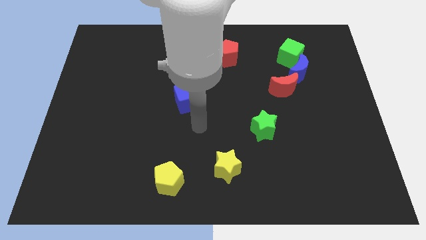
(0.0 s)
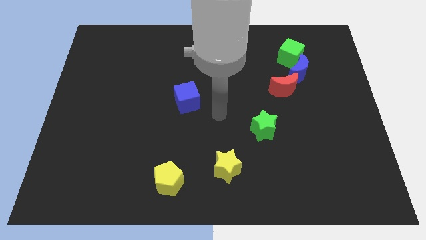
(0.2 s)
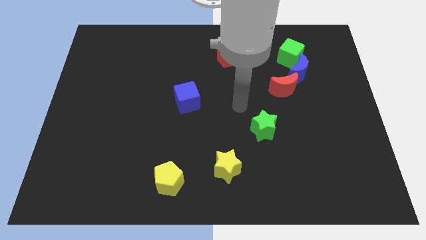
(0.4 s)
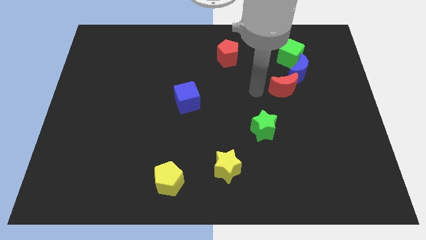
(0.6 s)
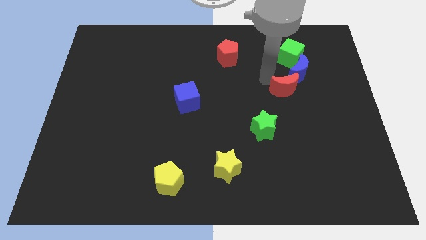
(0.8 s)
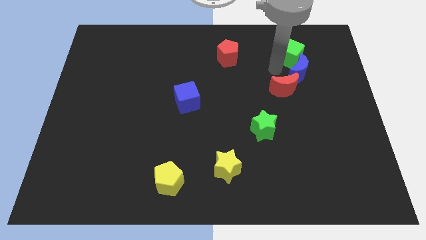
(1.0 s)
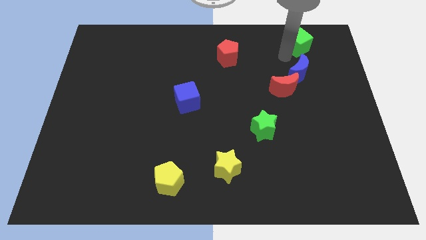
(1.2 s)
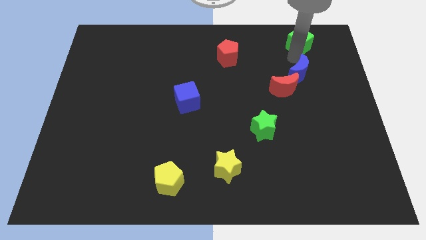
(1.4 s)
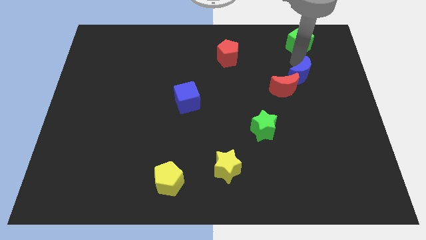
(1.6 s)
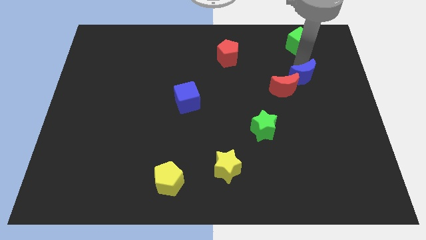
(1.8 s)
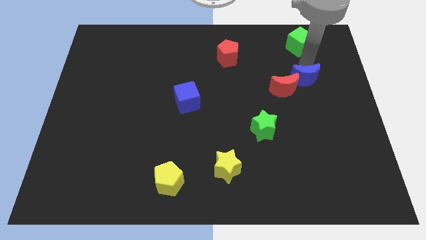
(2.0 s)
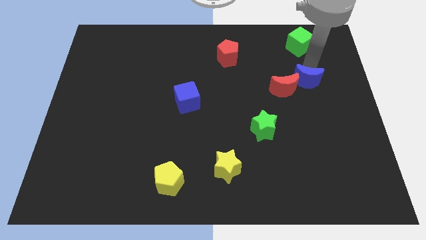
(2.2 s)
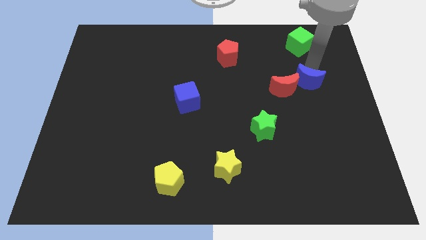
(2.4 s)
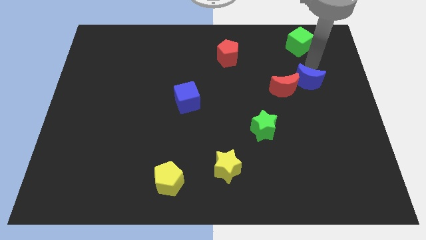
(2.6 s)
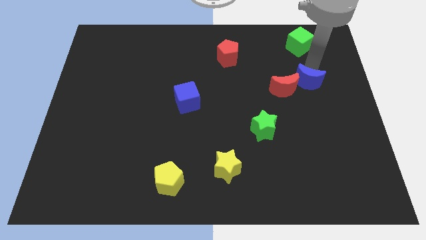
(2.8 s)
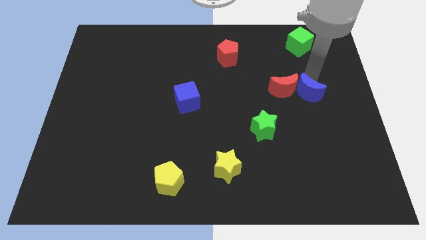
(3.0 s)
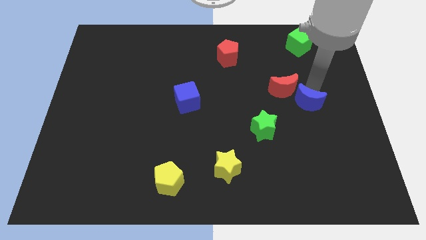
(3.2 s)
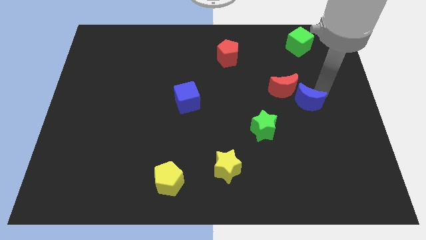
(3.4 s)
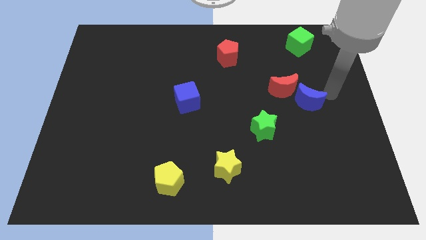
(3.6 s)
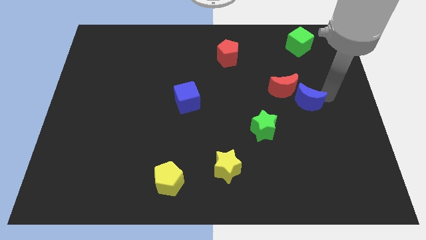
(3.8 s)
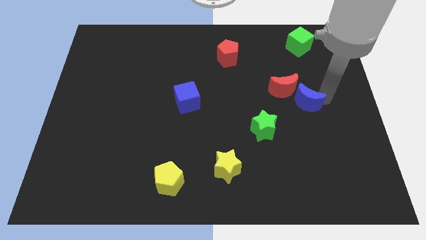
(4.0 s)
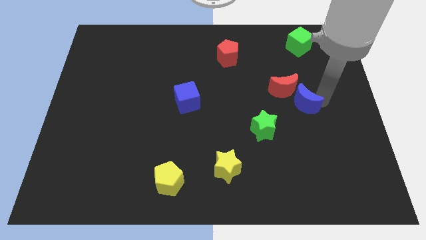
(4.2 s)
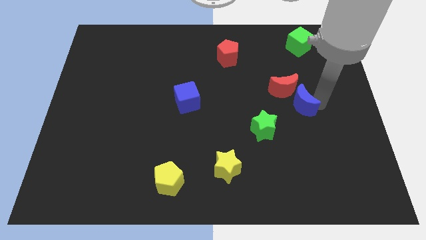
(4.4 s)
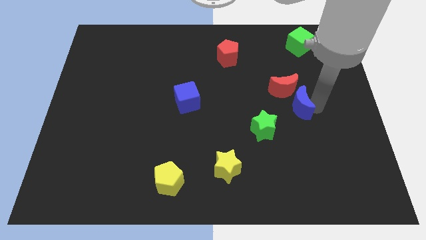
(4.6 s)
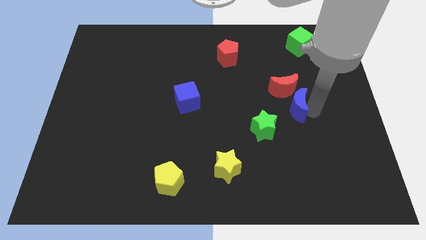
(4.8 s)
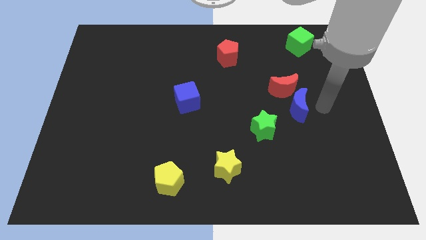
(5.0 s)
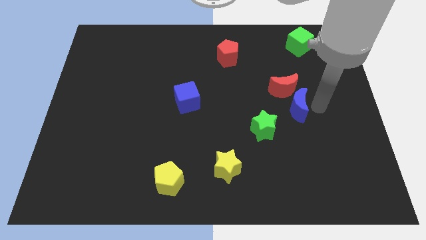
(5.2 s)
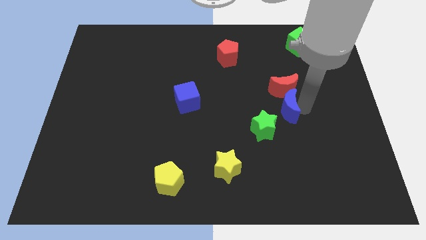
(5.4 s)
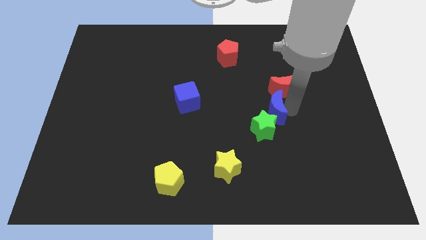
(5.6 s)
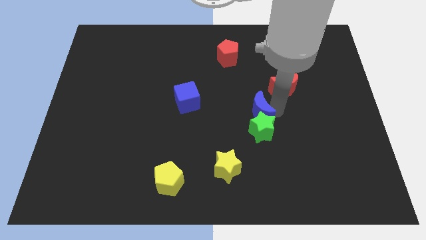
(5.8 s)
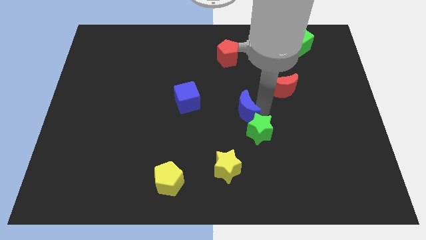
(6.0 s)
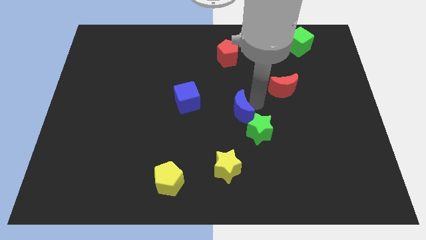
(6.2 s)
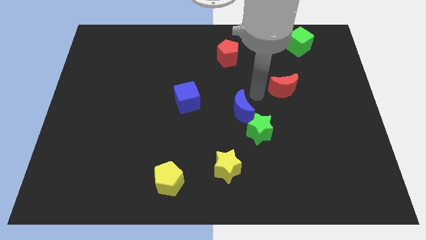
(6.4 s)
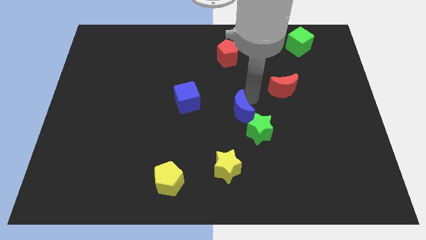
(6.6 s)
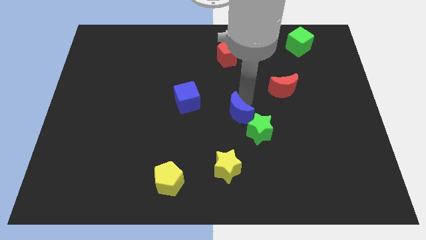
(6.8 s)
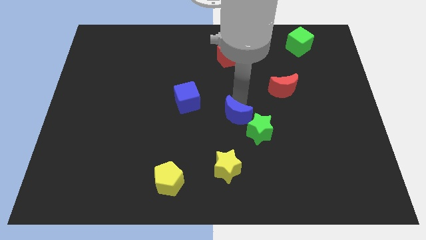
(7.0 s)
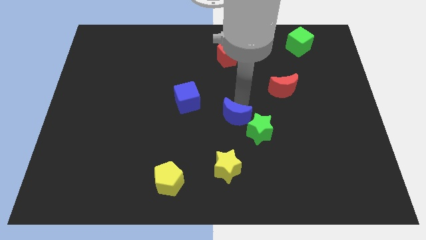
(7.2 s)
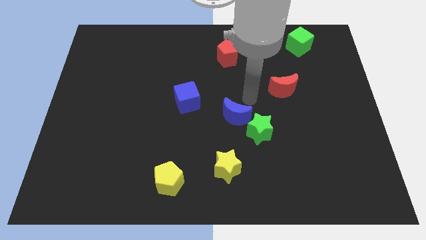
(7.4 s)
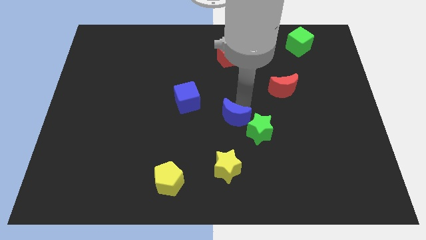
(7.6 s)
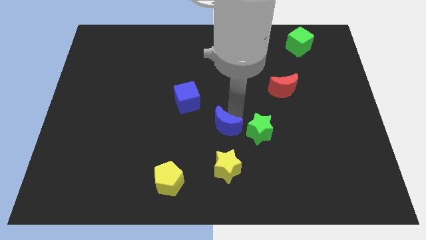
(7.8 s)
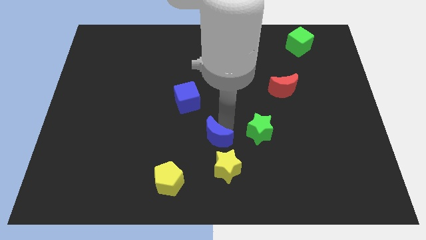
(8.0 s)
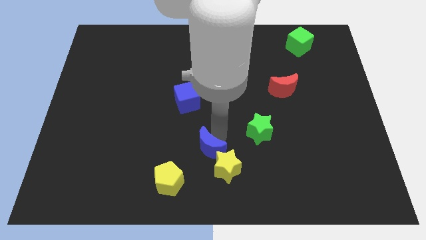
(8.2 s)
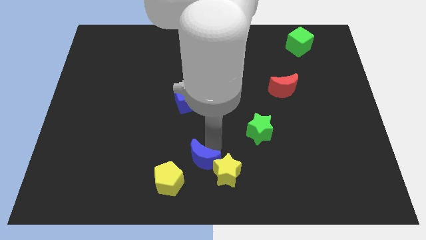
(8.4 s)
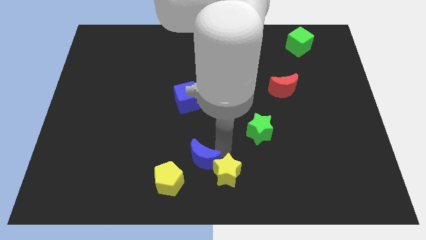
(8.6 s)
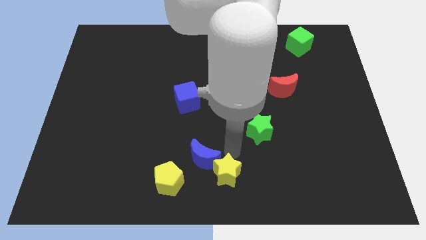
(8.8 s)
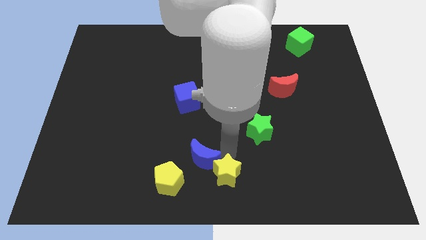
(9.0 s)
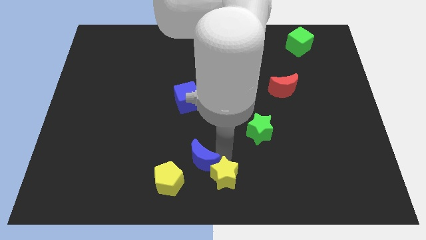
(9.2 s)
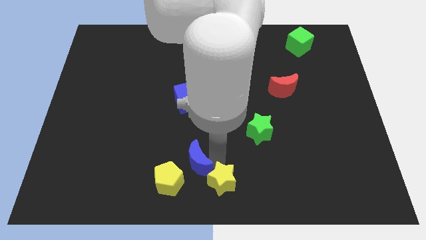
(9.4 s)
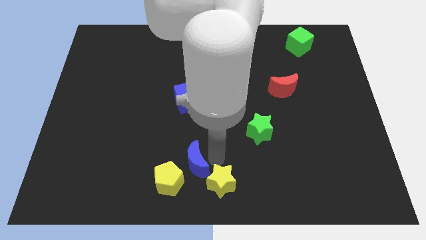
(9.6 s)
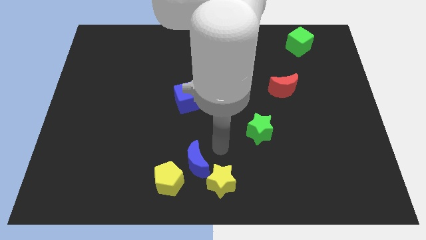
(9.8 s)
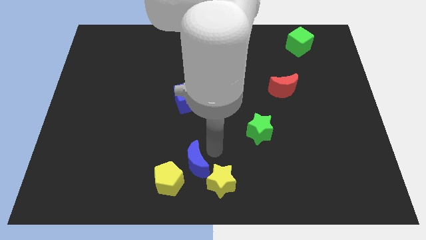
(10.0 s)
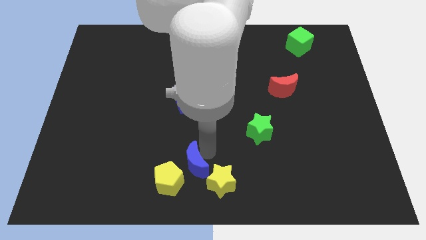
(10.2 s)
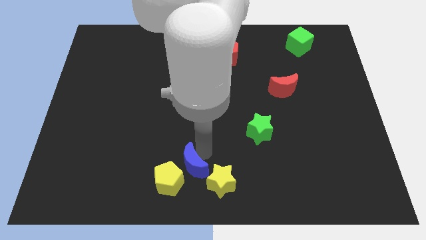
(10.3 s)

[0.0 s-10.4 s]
push the blue moon to the yellow pentagon

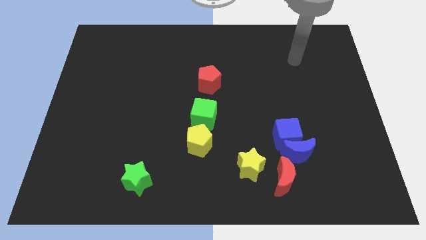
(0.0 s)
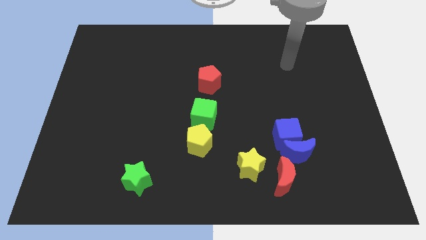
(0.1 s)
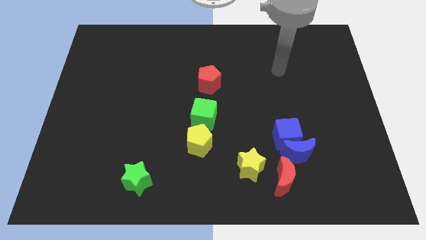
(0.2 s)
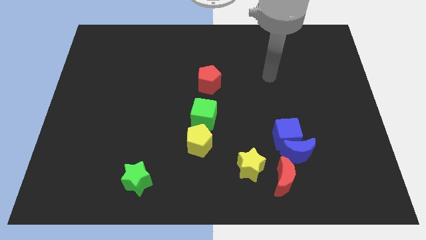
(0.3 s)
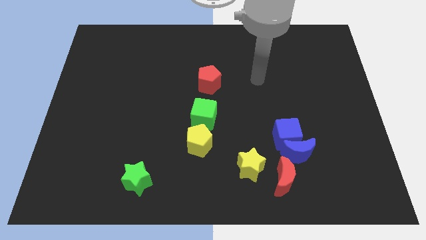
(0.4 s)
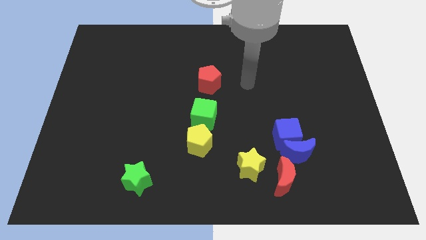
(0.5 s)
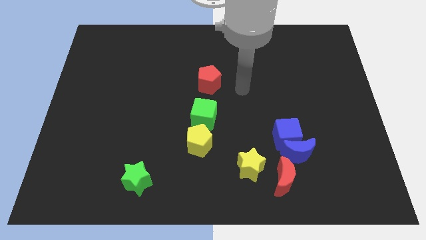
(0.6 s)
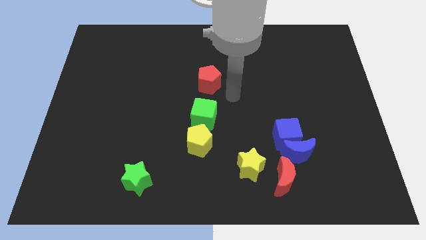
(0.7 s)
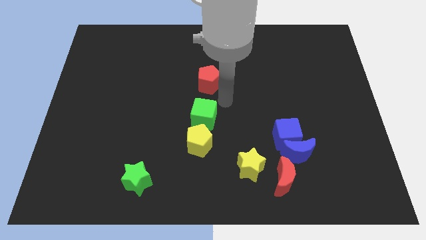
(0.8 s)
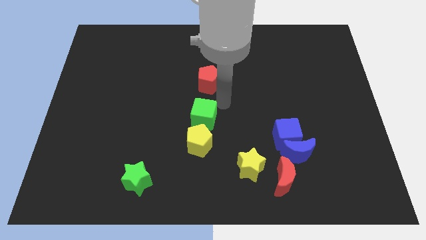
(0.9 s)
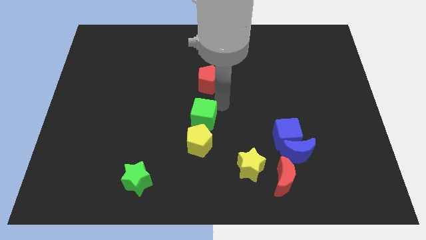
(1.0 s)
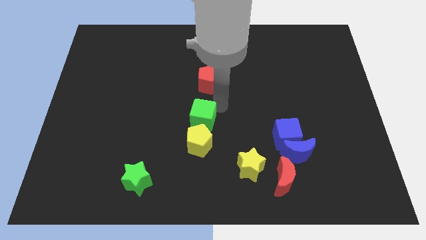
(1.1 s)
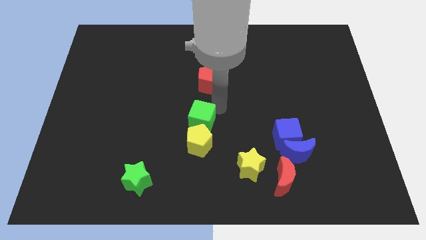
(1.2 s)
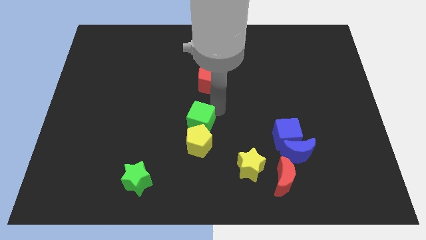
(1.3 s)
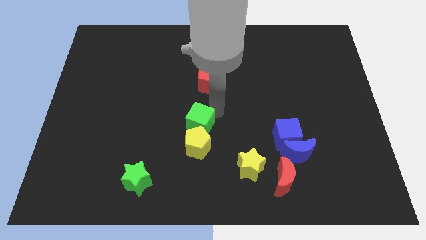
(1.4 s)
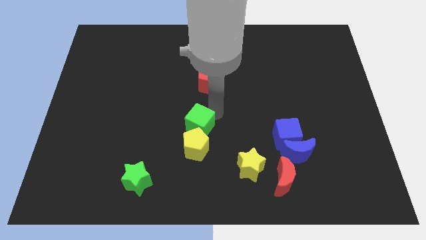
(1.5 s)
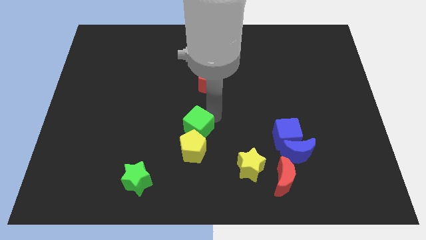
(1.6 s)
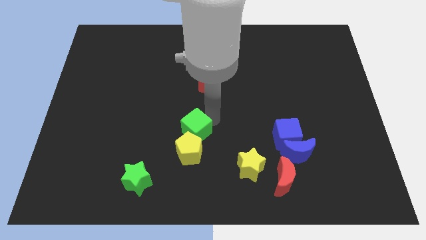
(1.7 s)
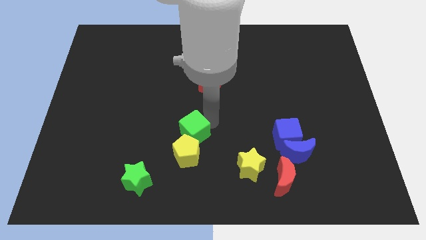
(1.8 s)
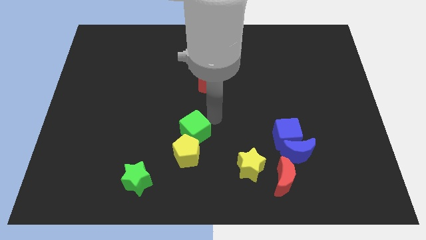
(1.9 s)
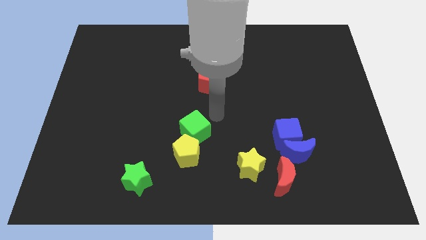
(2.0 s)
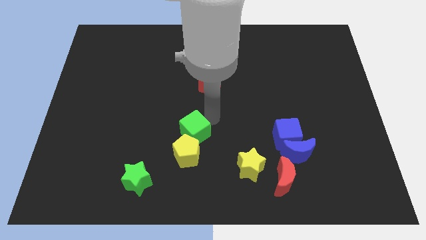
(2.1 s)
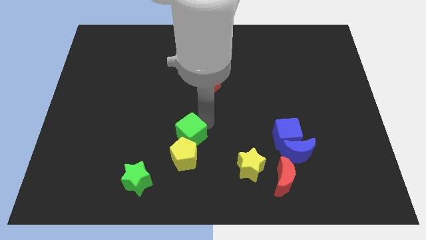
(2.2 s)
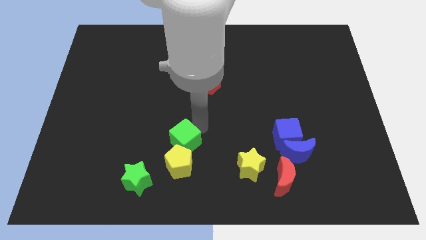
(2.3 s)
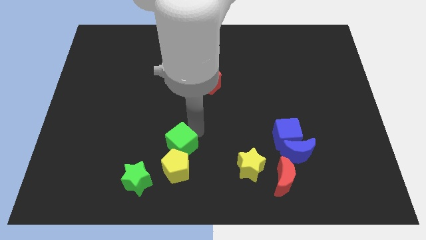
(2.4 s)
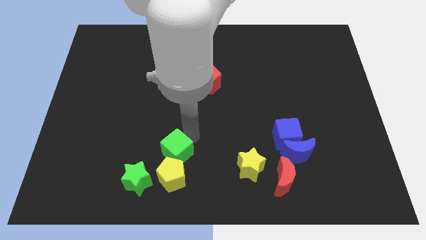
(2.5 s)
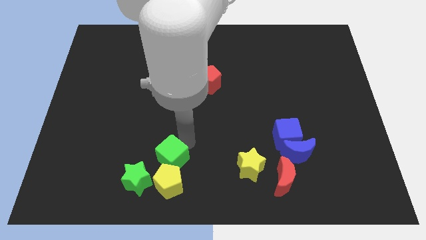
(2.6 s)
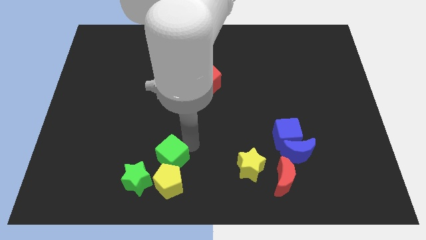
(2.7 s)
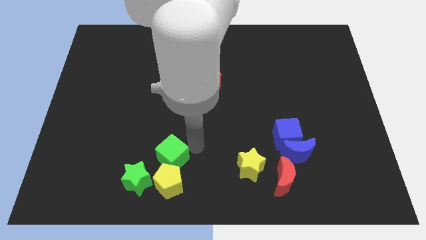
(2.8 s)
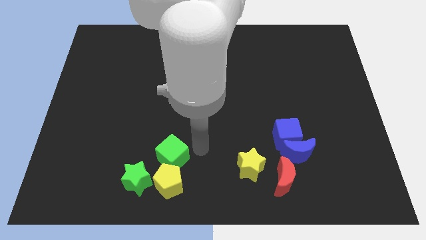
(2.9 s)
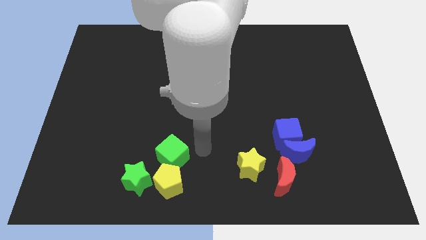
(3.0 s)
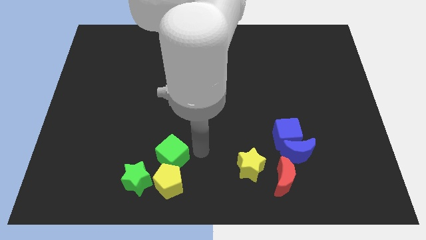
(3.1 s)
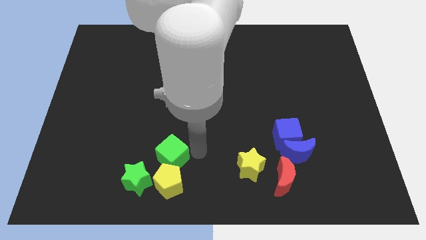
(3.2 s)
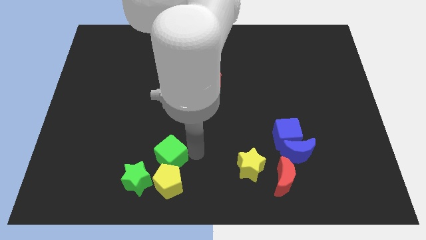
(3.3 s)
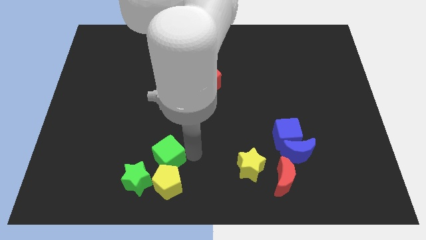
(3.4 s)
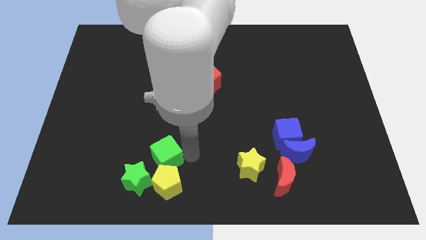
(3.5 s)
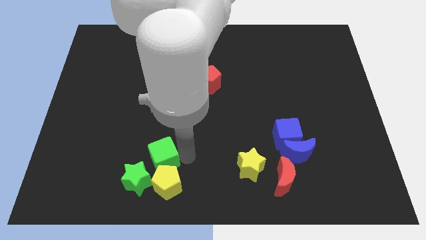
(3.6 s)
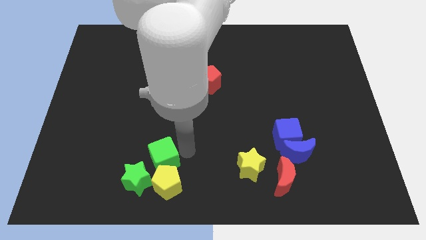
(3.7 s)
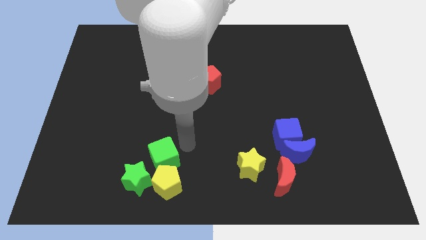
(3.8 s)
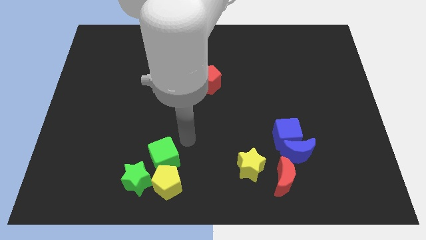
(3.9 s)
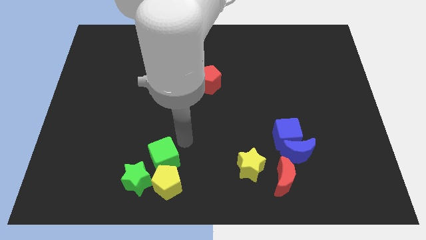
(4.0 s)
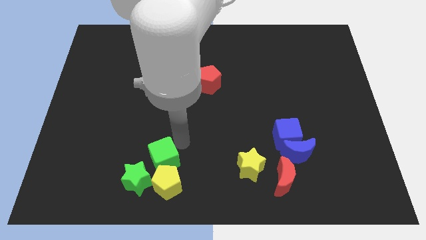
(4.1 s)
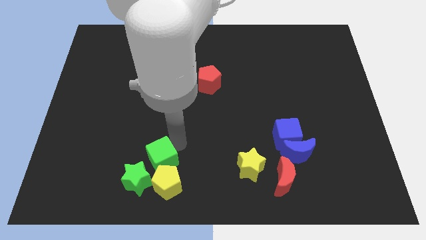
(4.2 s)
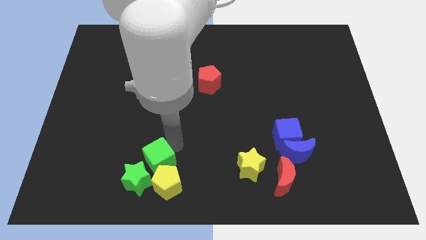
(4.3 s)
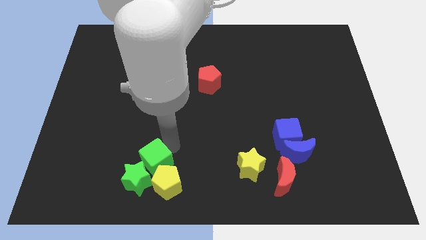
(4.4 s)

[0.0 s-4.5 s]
push the green cube close to the green star
